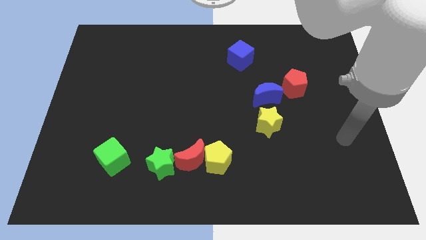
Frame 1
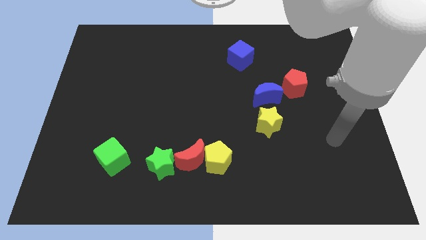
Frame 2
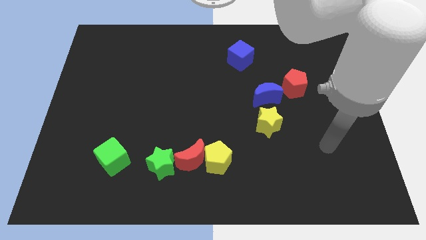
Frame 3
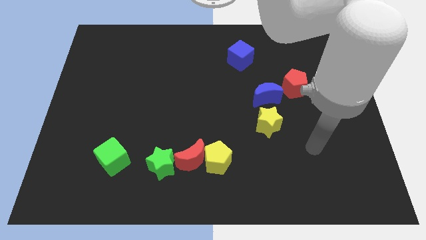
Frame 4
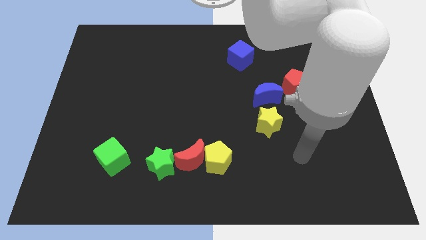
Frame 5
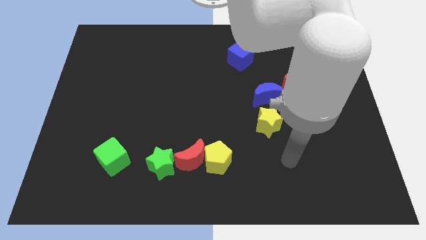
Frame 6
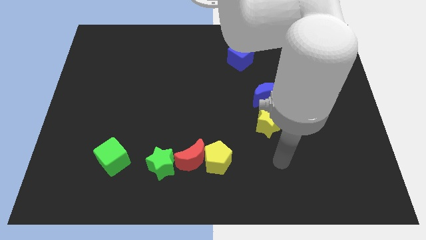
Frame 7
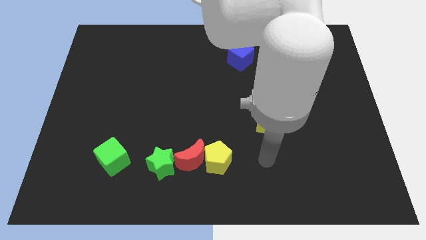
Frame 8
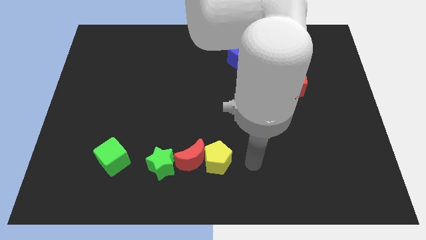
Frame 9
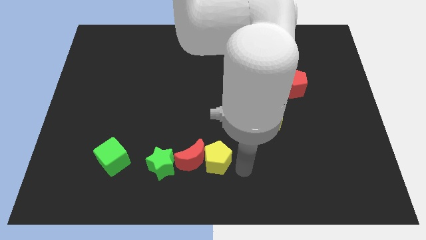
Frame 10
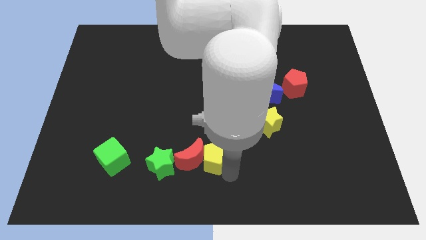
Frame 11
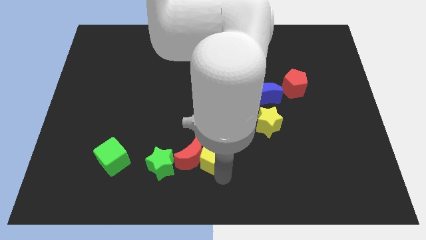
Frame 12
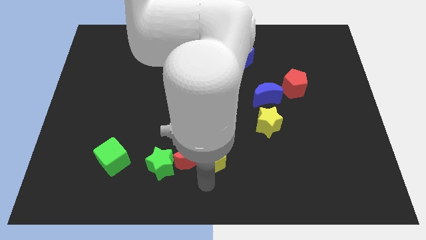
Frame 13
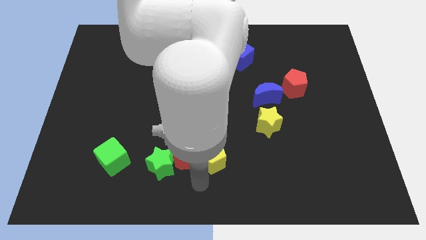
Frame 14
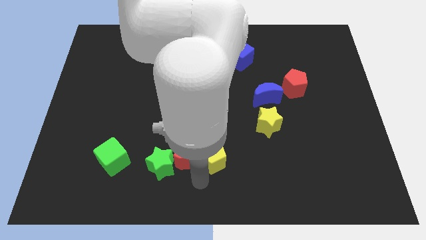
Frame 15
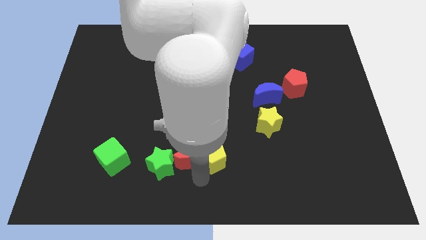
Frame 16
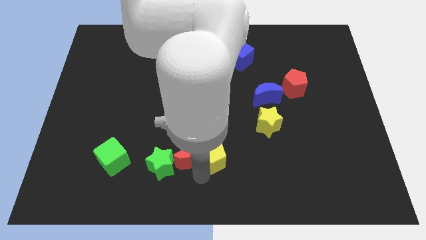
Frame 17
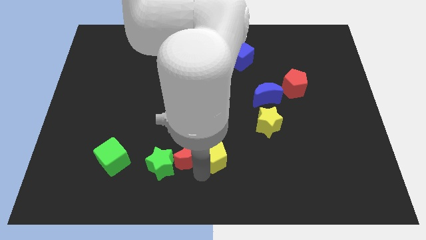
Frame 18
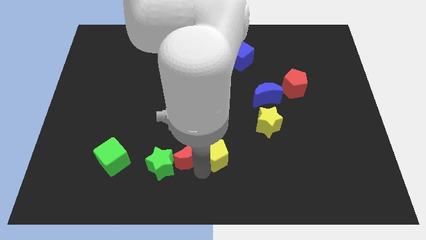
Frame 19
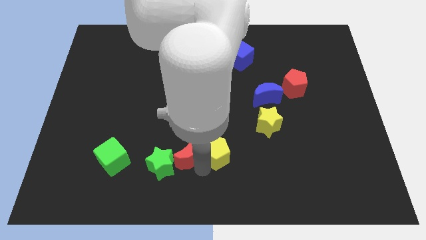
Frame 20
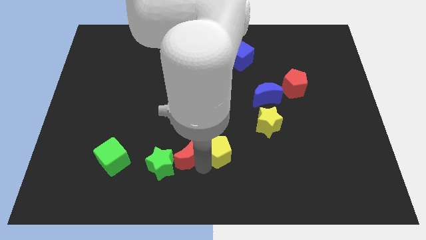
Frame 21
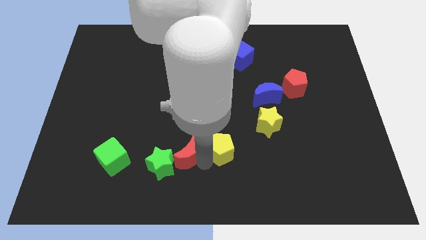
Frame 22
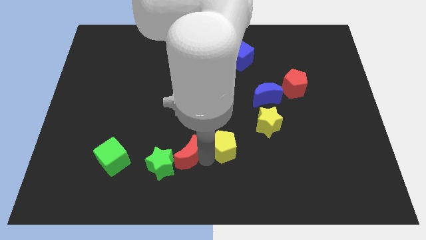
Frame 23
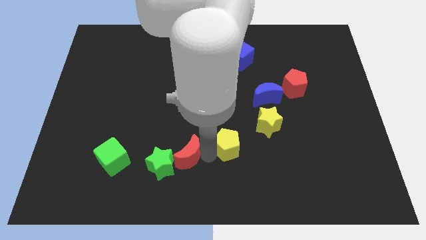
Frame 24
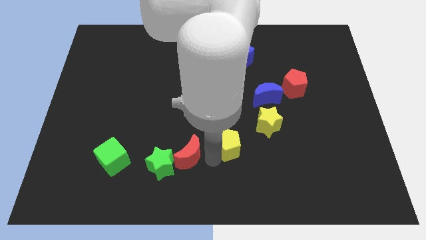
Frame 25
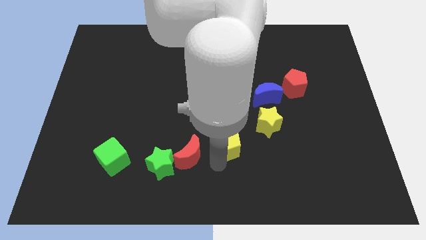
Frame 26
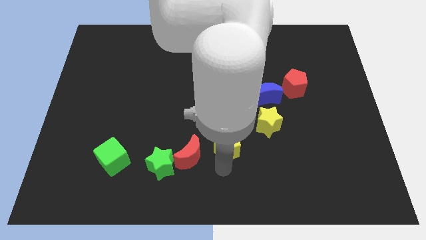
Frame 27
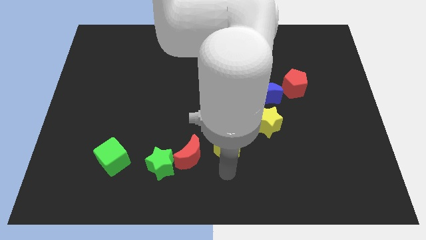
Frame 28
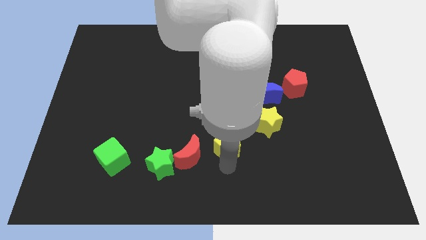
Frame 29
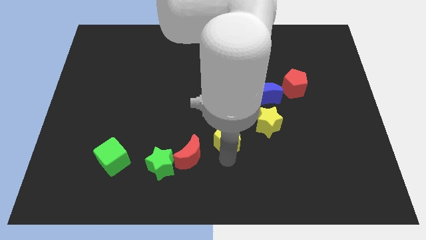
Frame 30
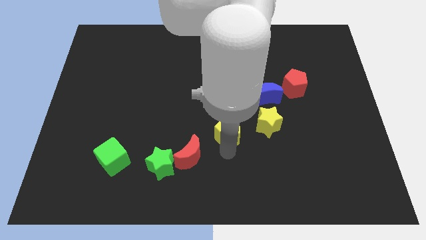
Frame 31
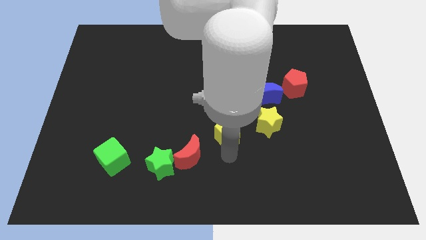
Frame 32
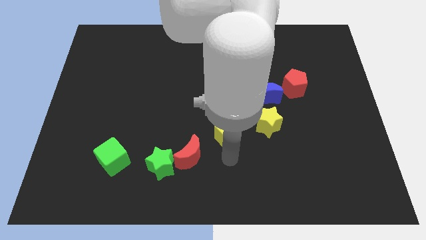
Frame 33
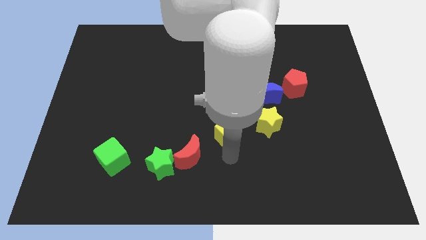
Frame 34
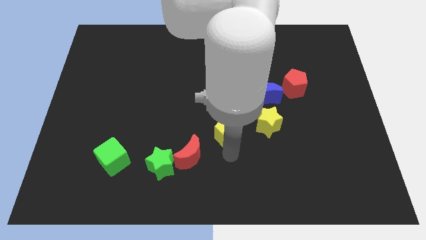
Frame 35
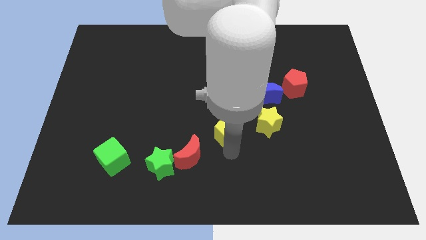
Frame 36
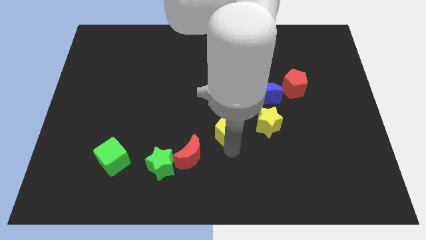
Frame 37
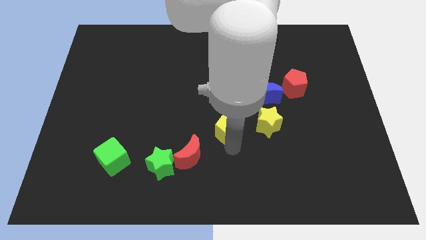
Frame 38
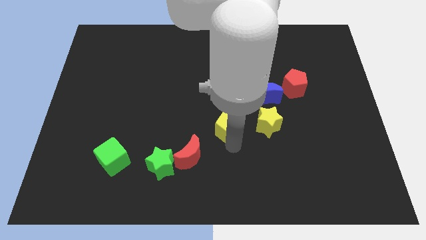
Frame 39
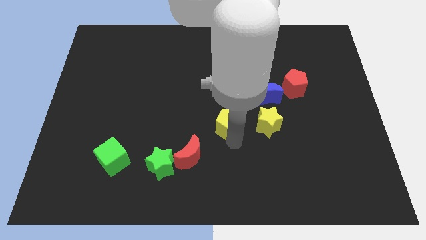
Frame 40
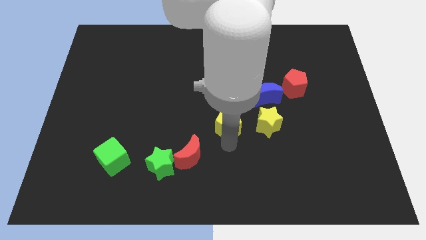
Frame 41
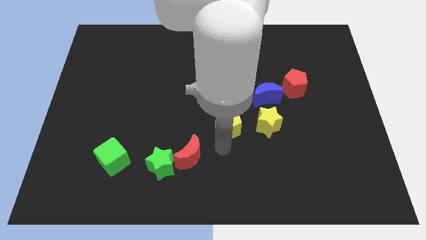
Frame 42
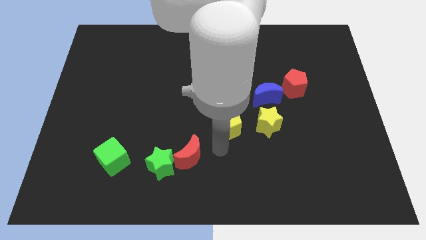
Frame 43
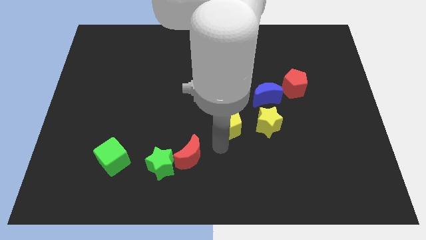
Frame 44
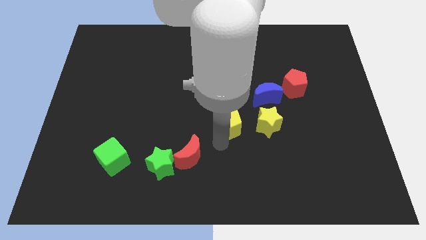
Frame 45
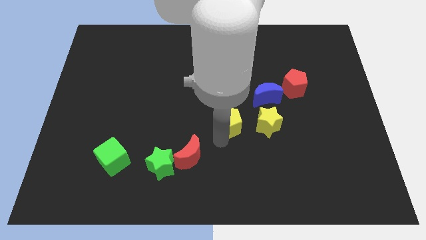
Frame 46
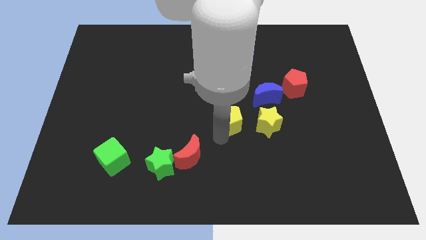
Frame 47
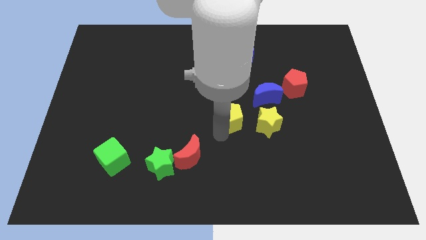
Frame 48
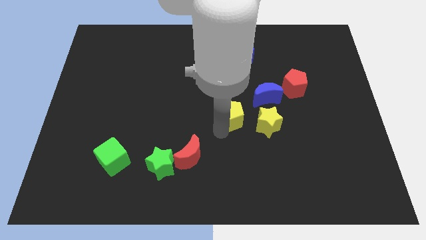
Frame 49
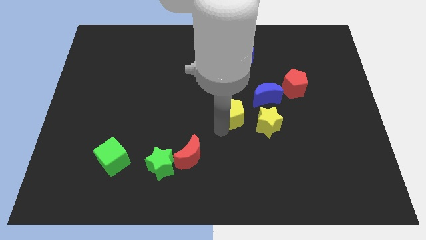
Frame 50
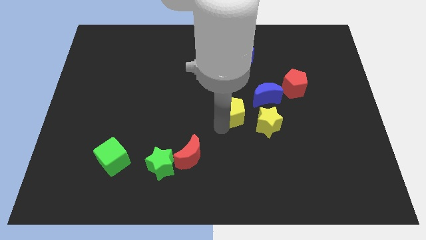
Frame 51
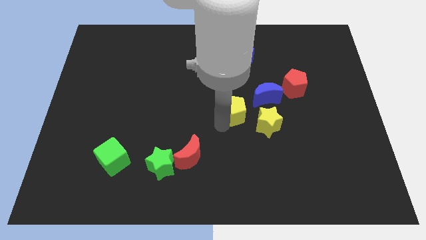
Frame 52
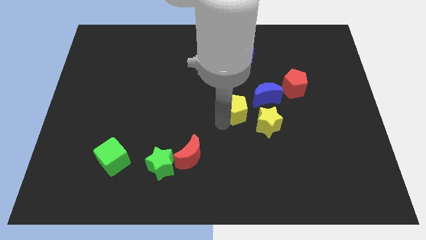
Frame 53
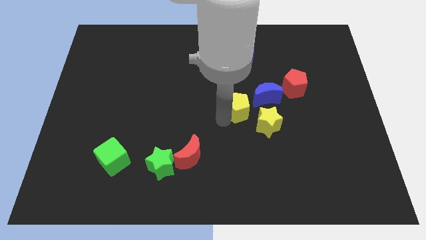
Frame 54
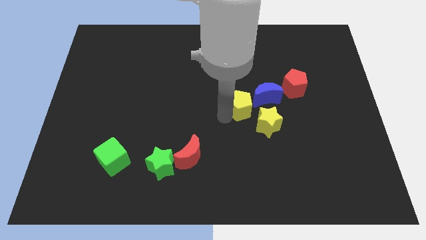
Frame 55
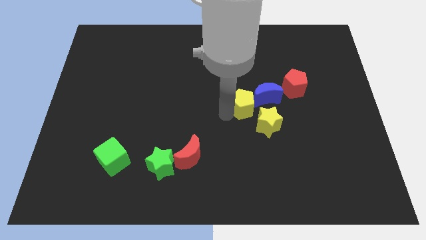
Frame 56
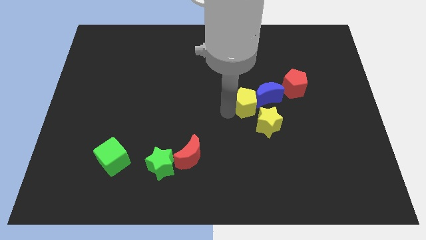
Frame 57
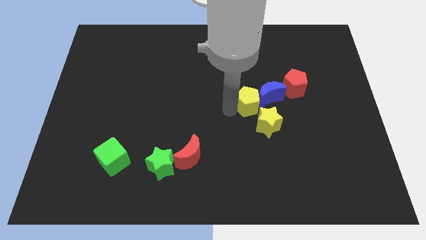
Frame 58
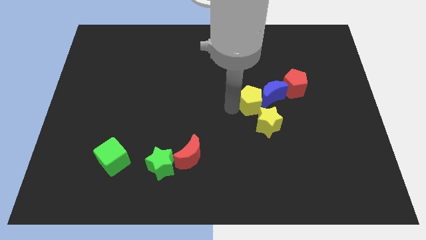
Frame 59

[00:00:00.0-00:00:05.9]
move the yellow pentagon just left of the red pentagon
